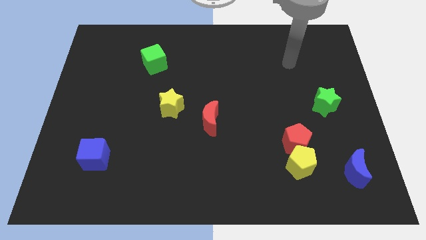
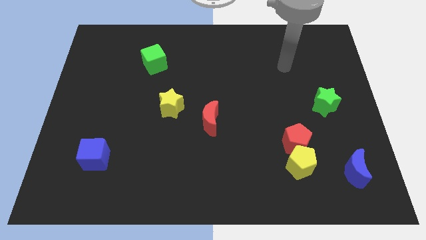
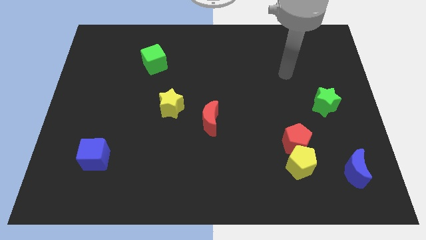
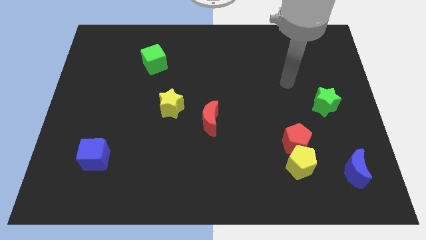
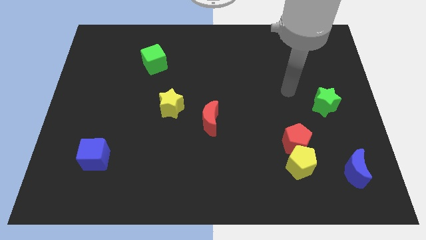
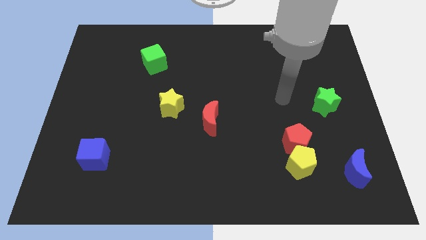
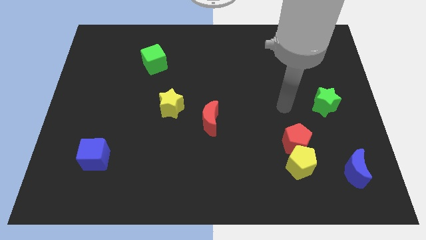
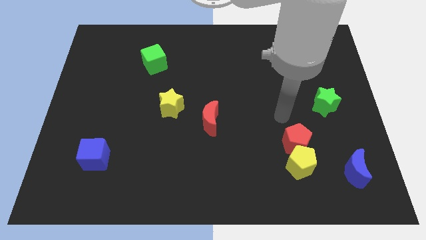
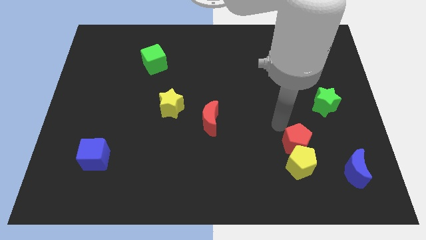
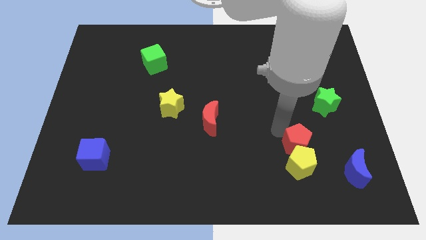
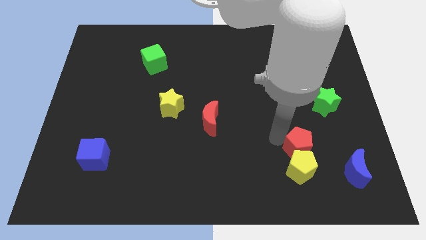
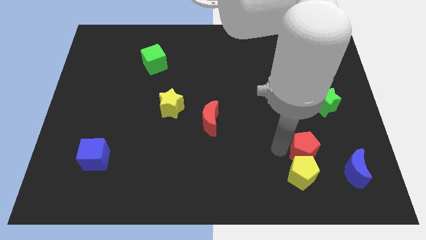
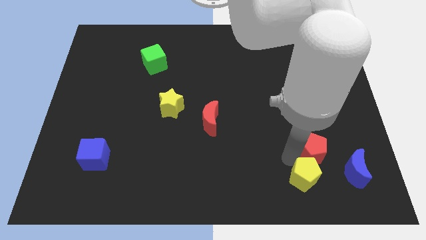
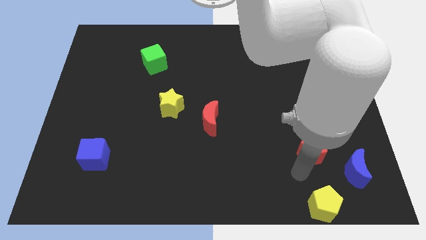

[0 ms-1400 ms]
separate the red pentagon from the yellow pentagon

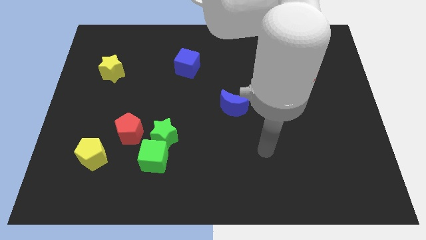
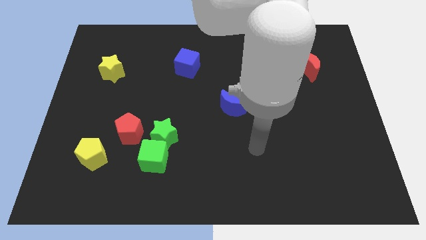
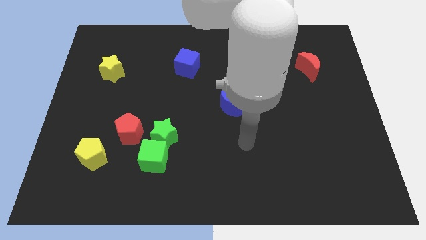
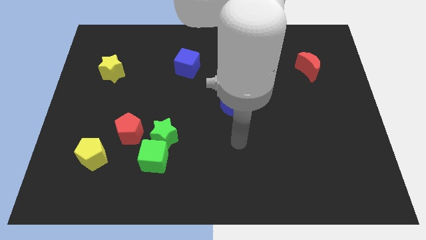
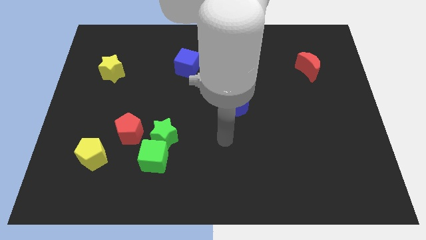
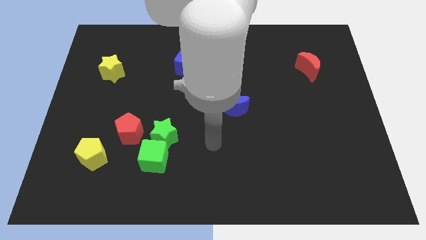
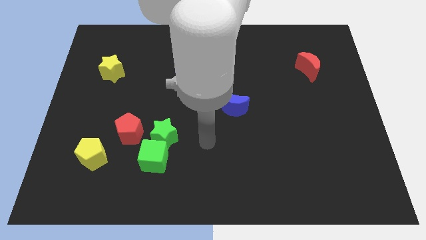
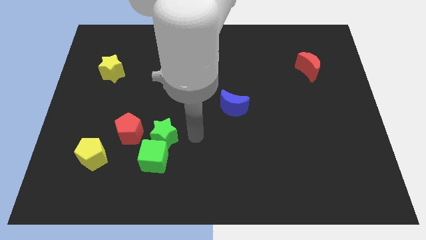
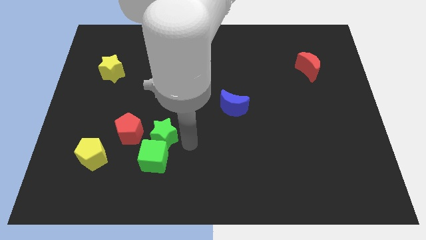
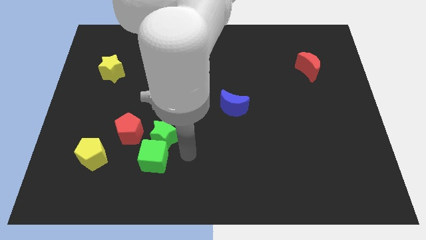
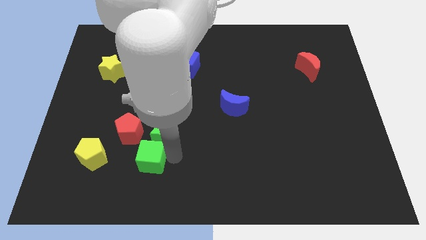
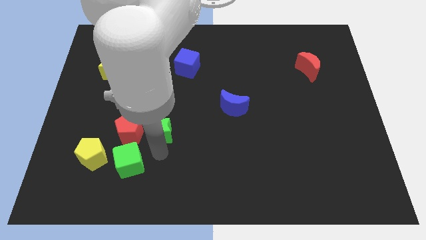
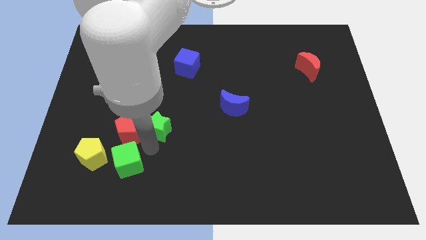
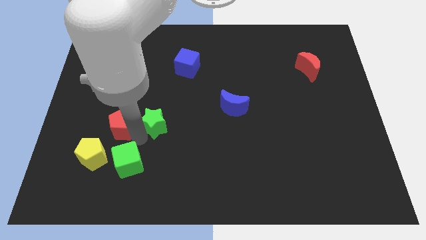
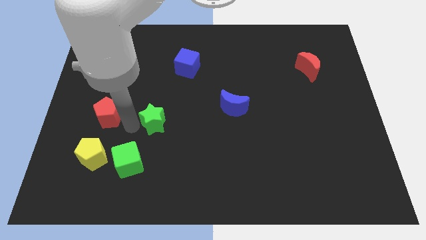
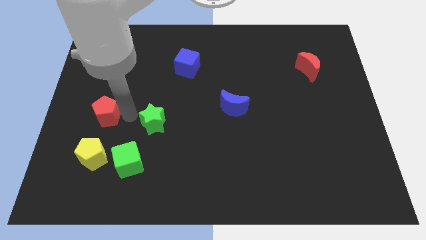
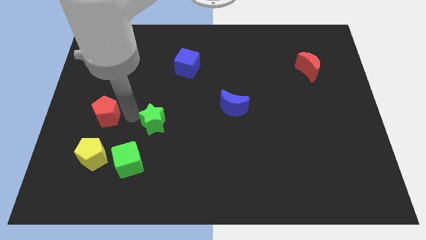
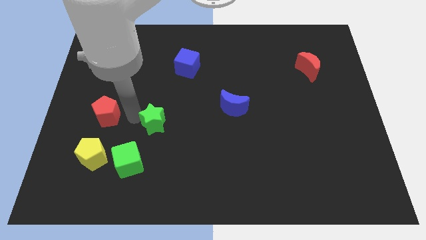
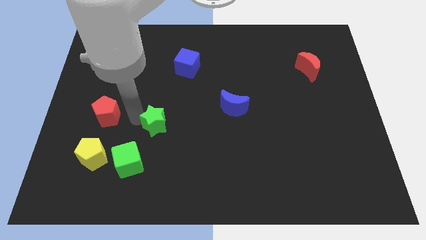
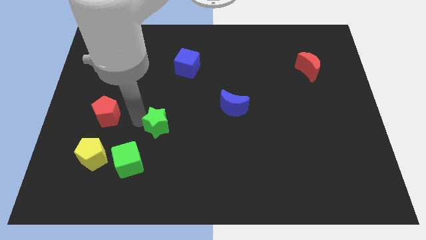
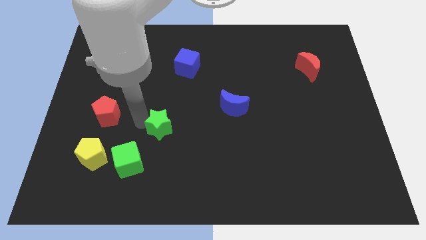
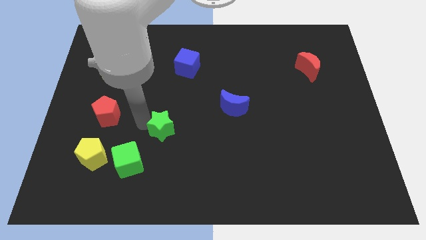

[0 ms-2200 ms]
separate the green star from the green cube and red pentagon

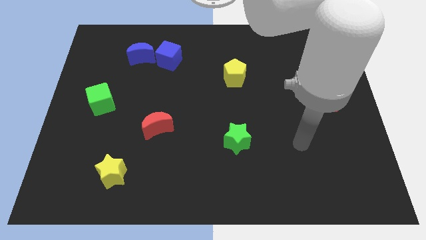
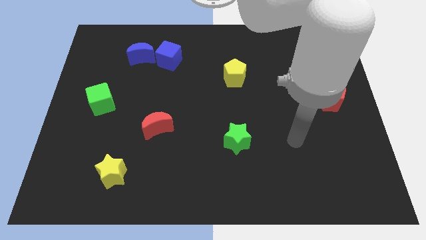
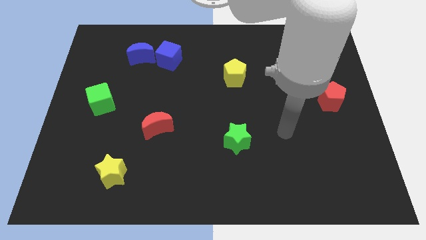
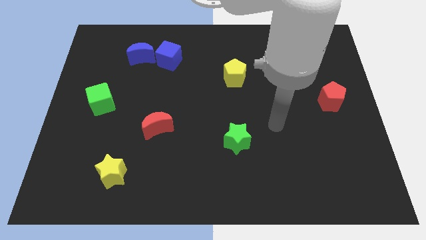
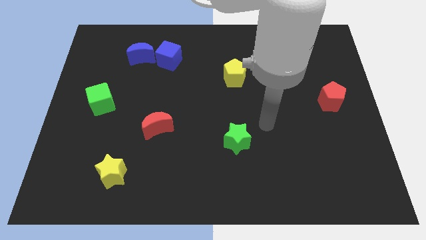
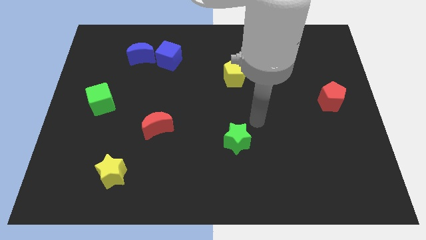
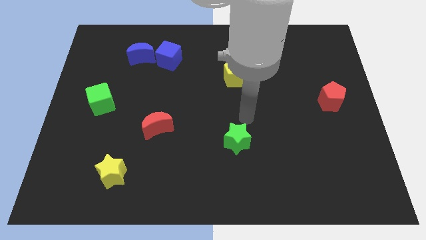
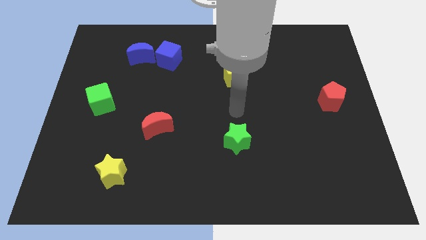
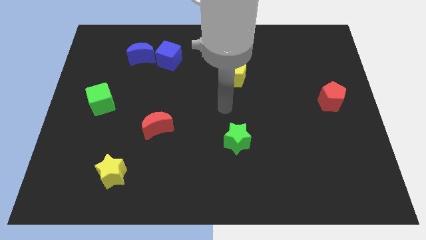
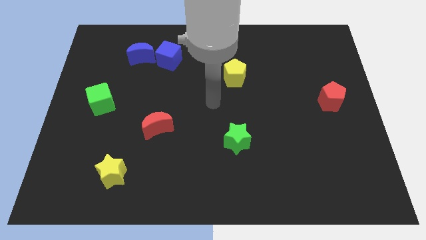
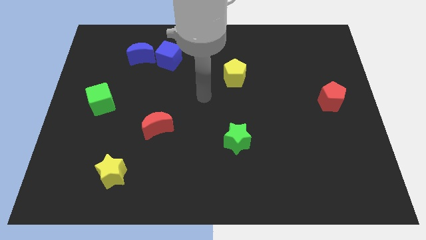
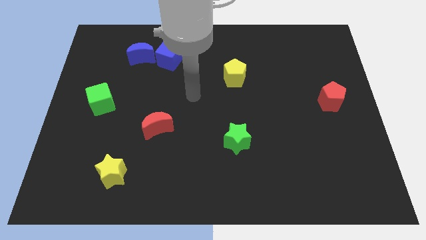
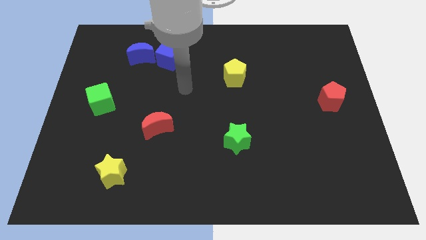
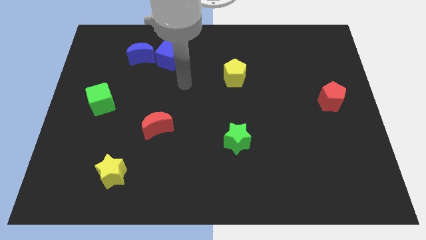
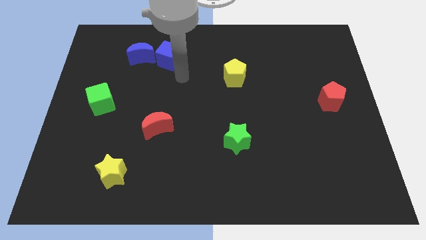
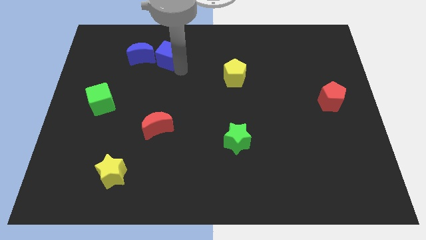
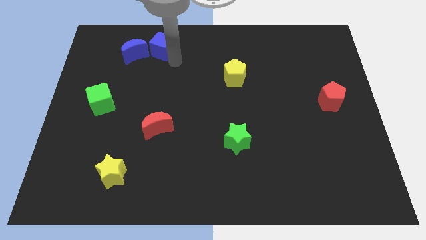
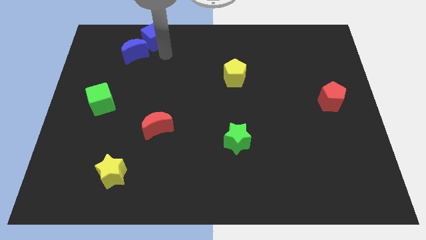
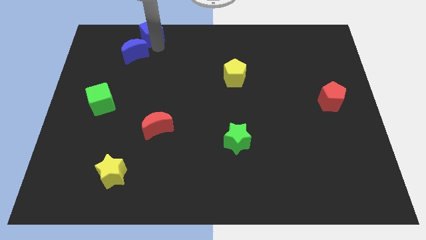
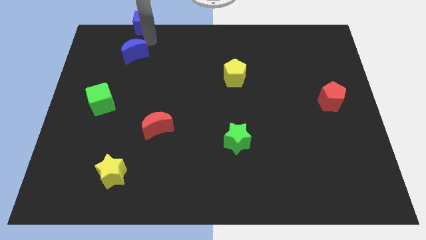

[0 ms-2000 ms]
move the blue moon away from the blue cube

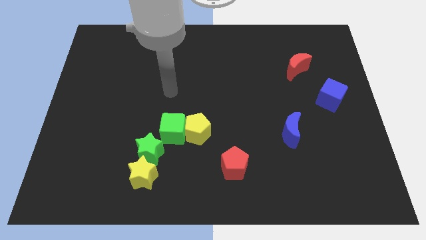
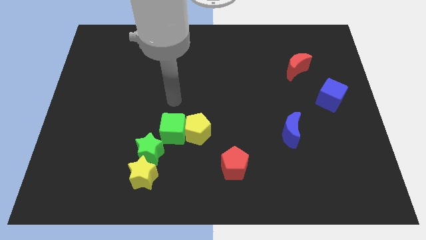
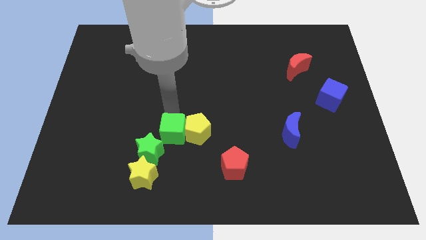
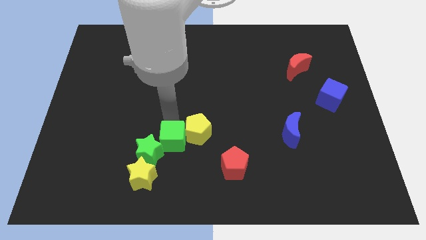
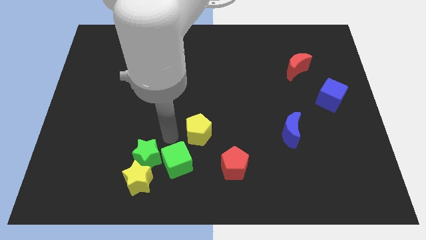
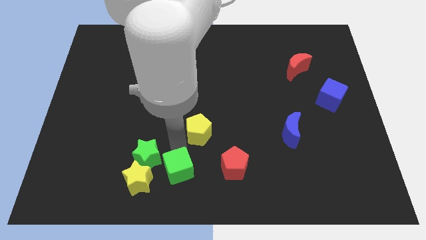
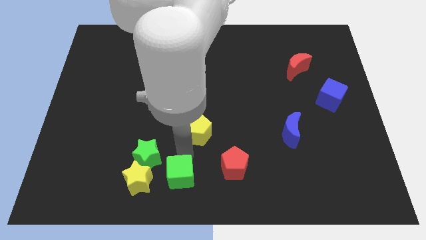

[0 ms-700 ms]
separate the yellow pentagon from the green cube

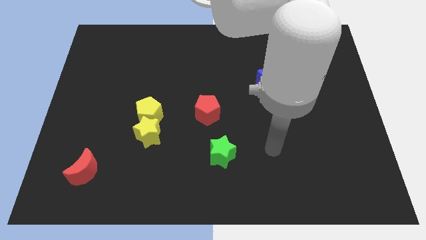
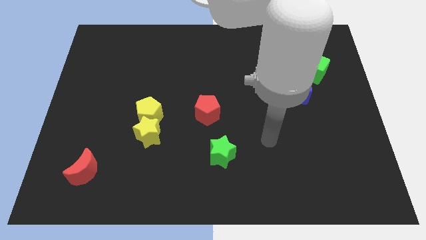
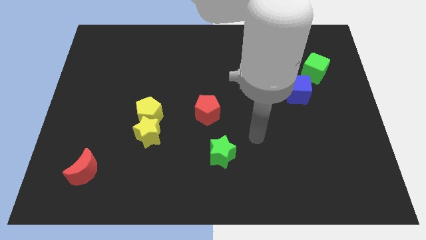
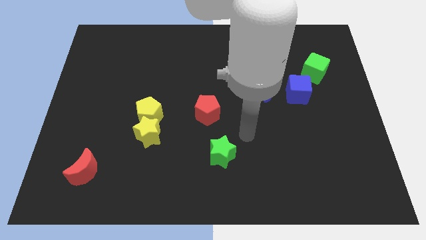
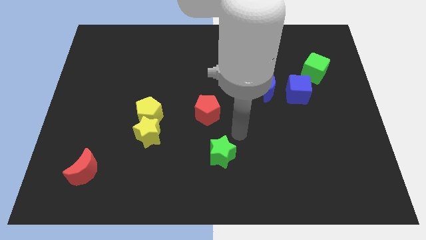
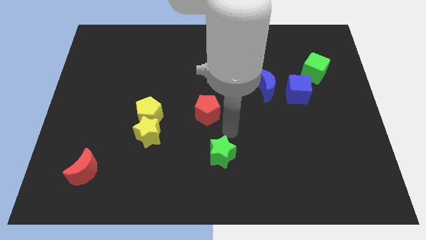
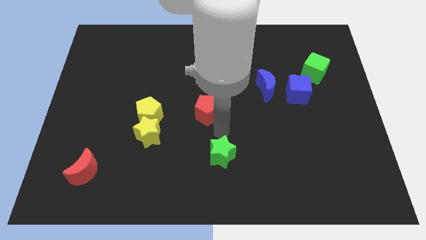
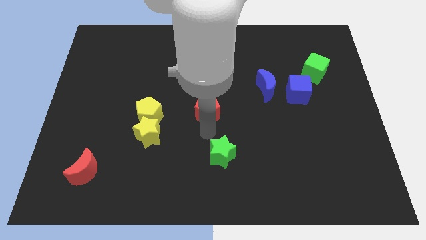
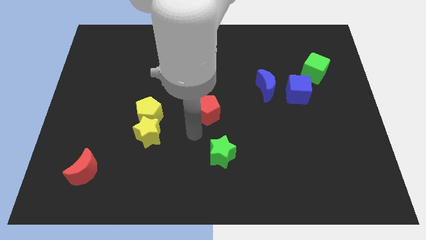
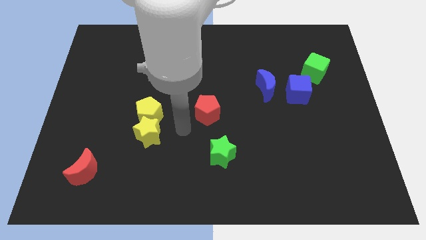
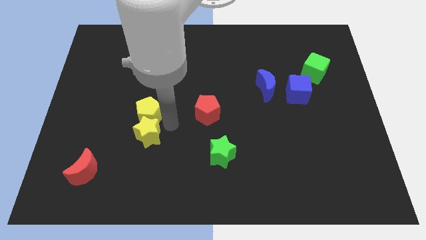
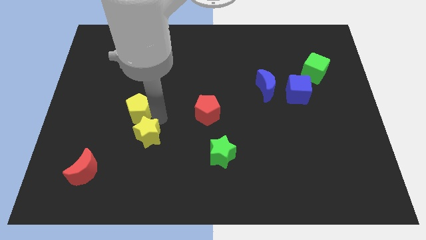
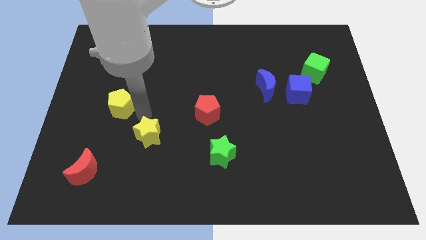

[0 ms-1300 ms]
separate the yellow star from the yellow pentagon

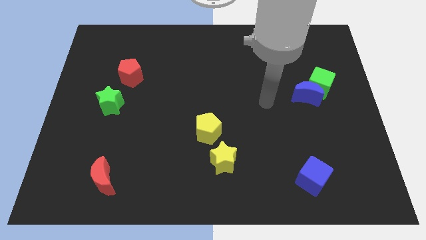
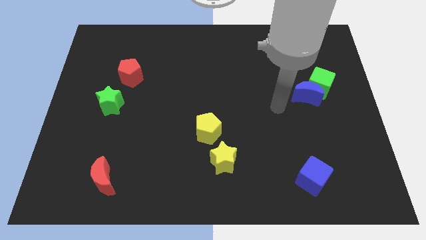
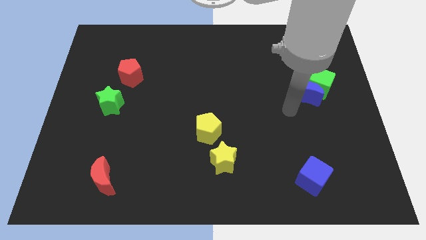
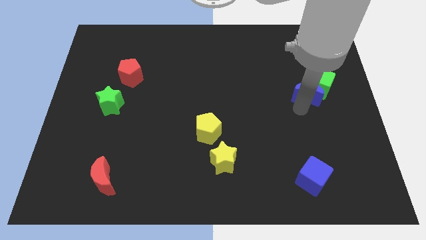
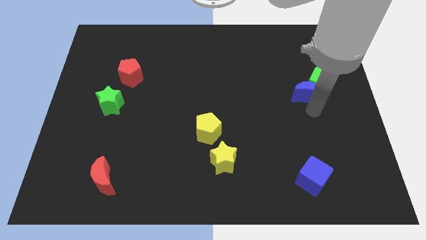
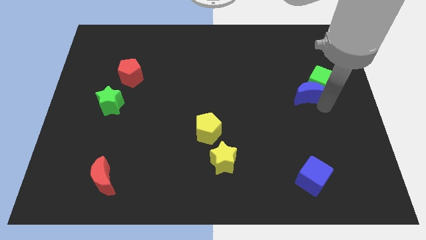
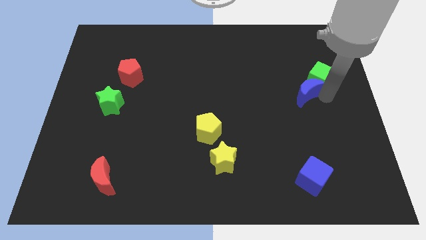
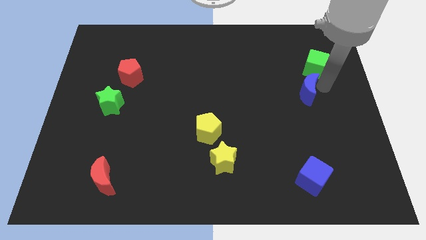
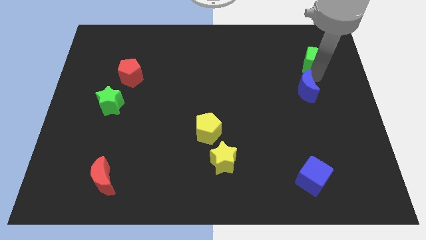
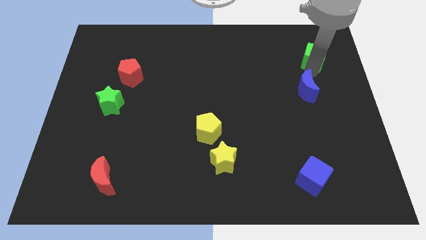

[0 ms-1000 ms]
separate the blue moon from the green cube

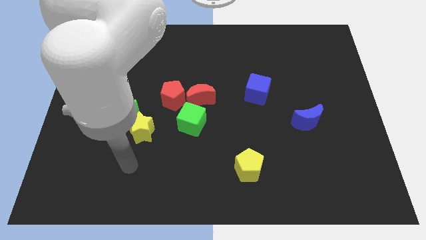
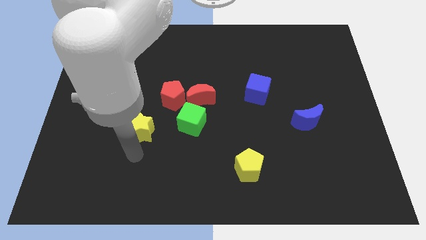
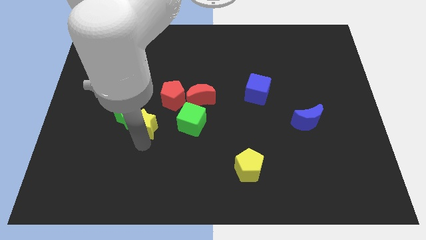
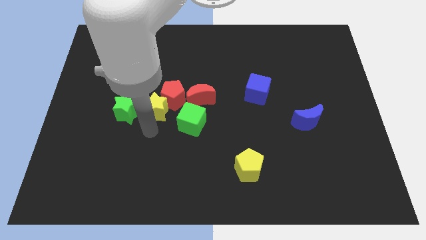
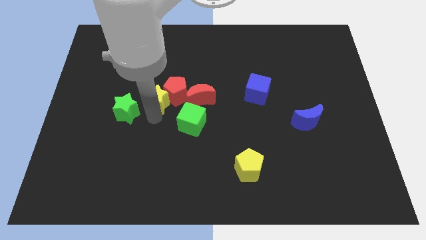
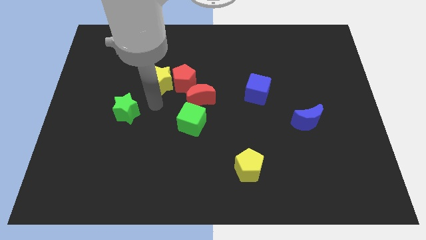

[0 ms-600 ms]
move the green star away from the yellow star
